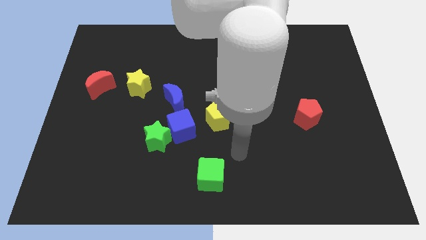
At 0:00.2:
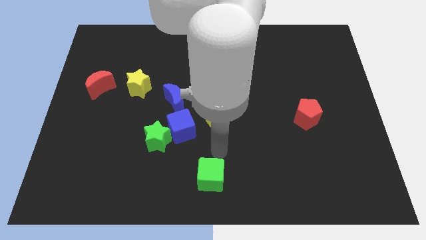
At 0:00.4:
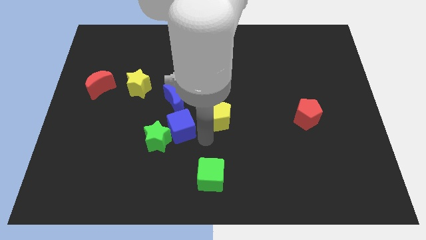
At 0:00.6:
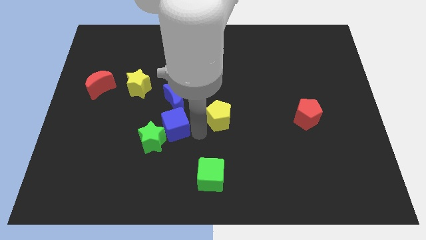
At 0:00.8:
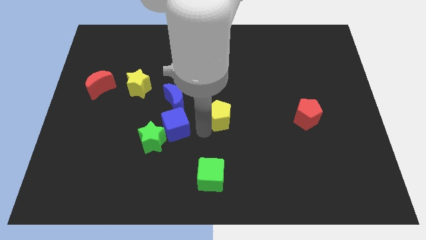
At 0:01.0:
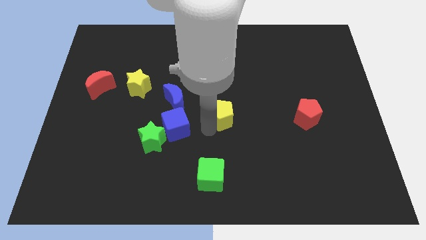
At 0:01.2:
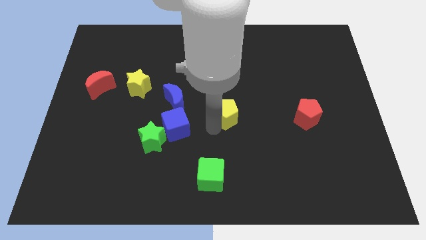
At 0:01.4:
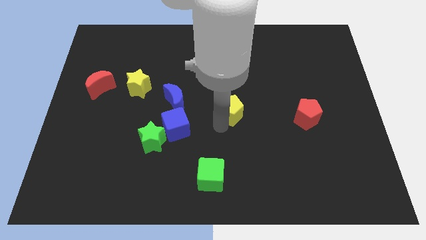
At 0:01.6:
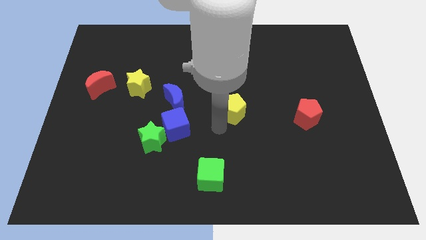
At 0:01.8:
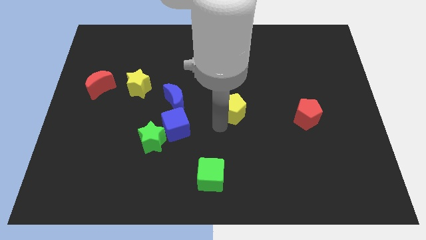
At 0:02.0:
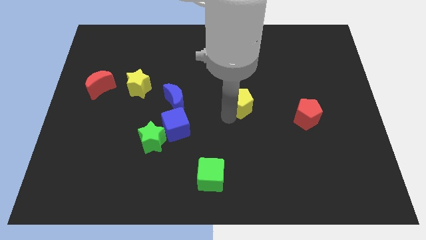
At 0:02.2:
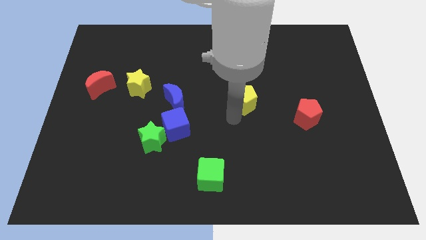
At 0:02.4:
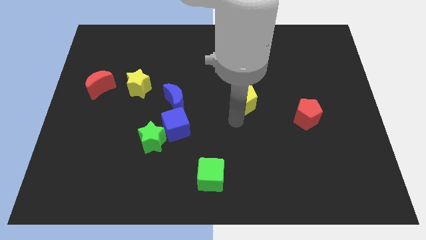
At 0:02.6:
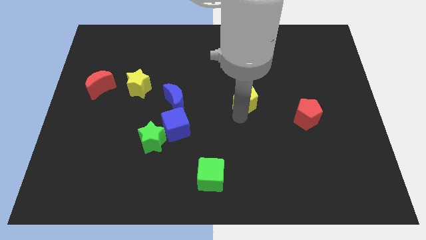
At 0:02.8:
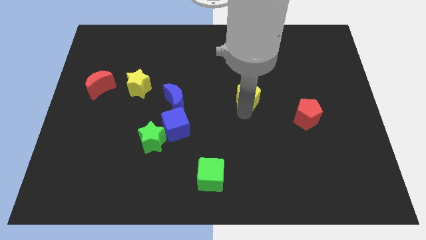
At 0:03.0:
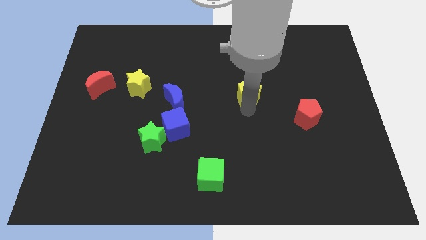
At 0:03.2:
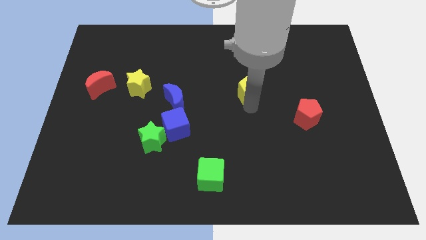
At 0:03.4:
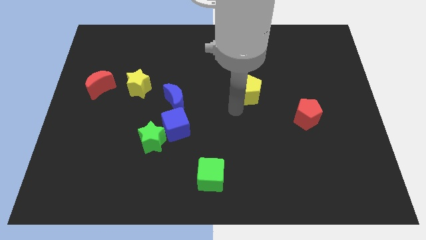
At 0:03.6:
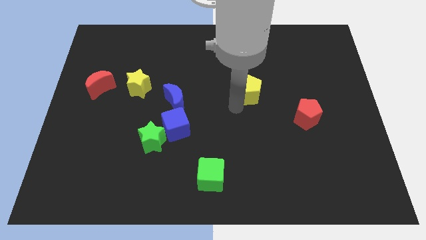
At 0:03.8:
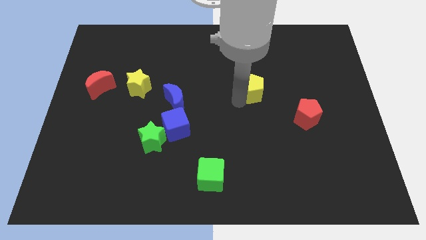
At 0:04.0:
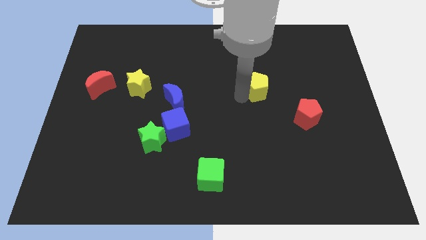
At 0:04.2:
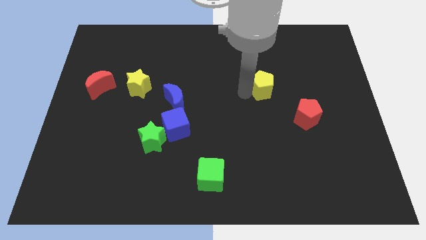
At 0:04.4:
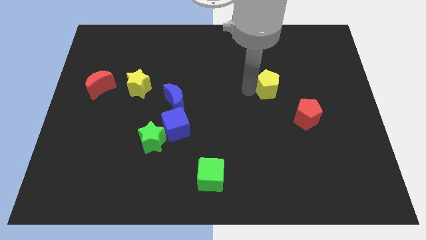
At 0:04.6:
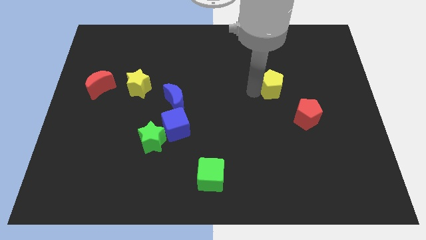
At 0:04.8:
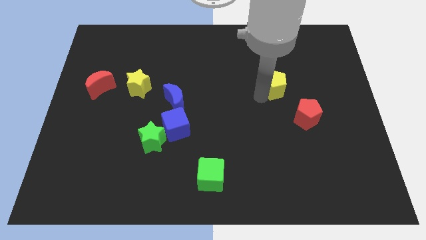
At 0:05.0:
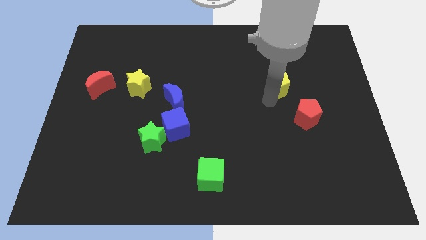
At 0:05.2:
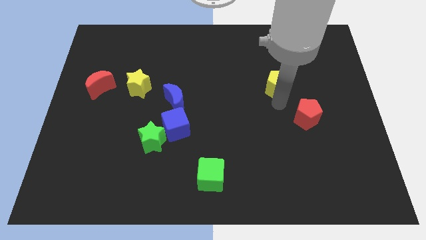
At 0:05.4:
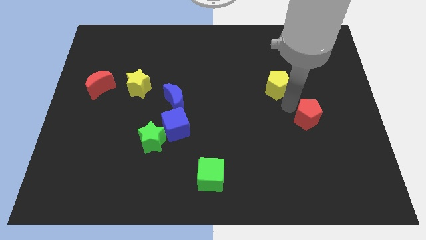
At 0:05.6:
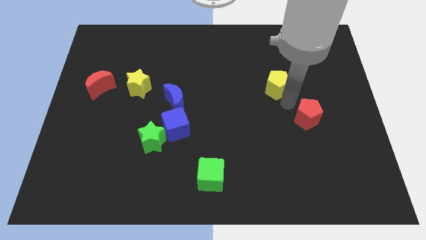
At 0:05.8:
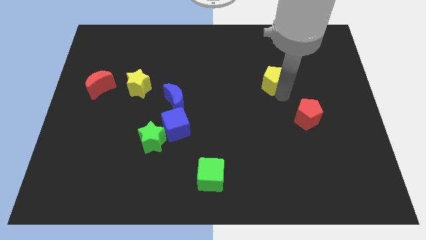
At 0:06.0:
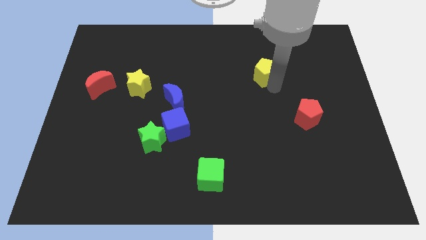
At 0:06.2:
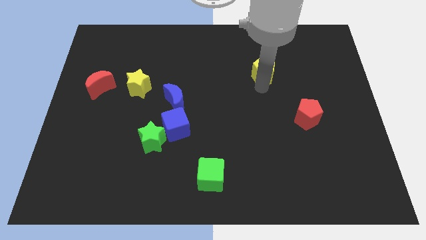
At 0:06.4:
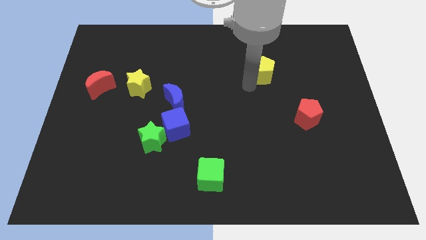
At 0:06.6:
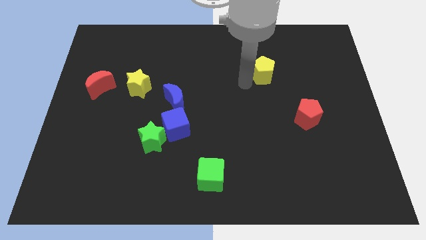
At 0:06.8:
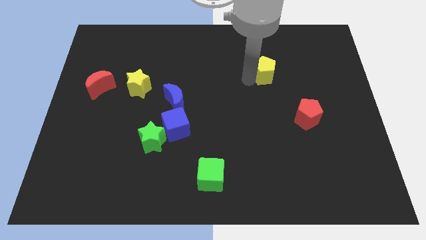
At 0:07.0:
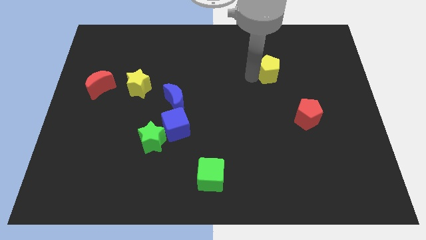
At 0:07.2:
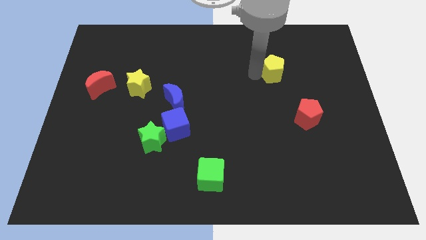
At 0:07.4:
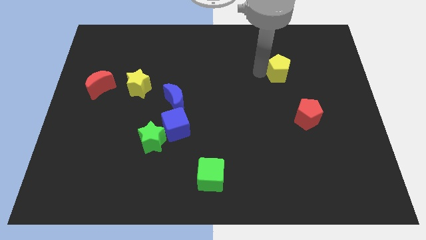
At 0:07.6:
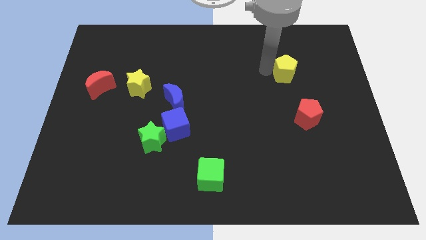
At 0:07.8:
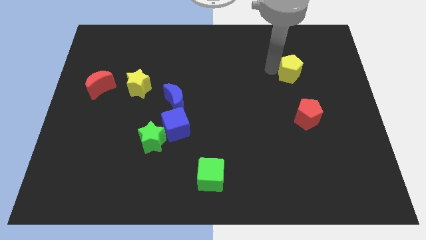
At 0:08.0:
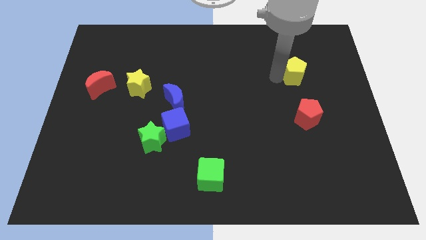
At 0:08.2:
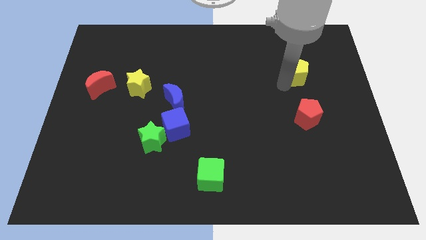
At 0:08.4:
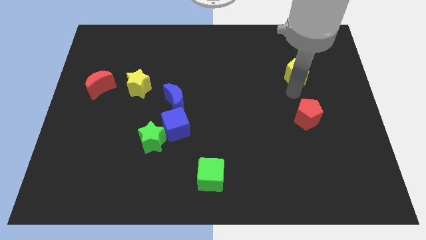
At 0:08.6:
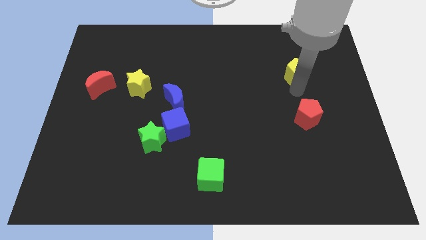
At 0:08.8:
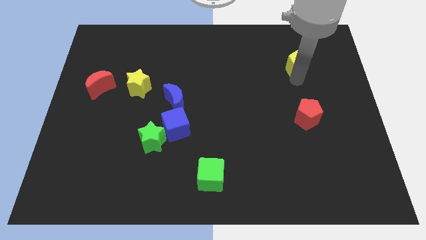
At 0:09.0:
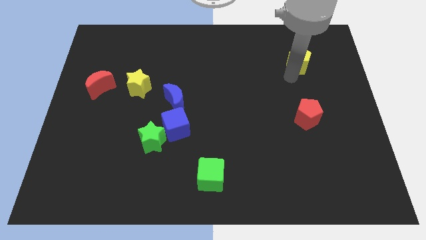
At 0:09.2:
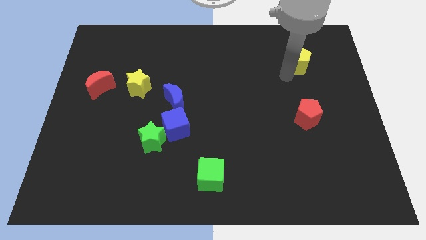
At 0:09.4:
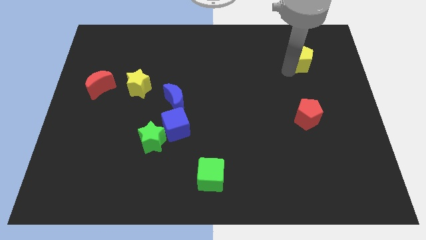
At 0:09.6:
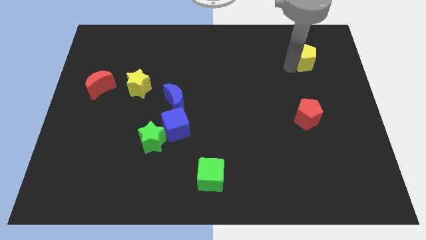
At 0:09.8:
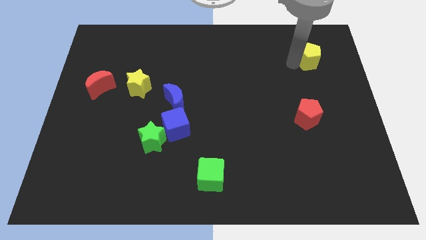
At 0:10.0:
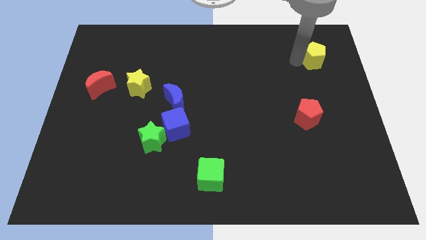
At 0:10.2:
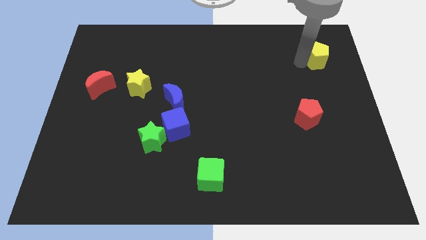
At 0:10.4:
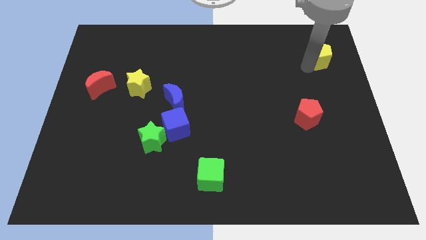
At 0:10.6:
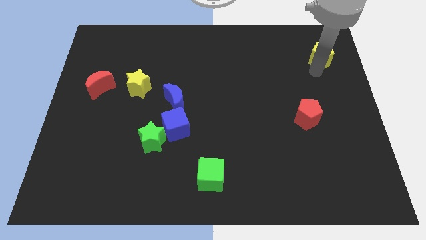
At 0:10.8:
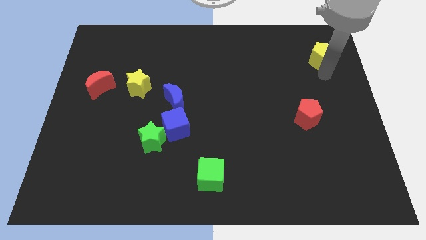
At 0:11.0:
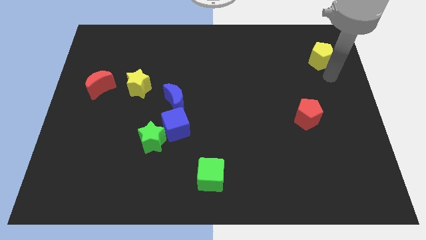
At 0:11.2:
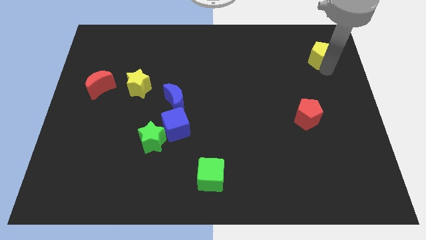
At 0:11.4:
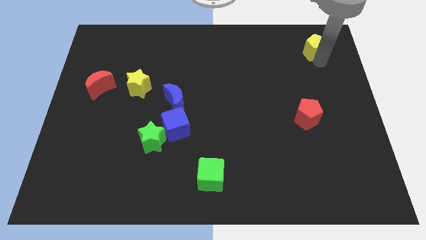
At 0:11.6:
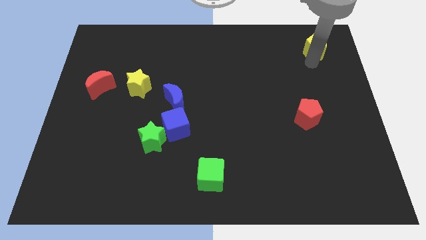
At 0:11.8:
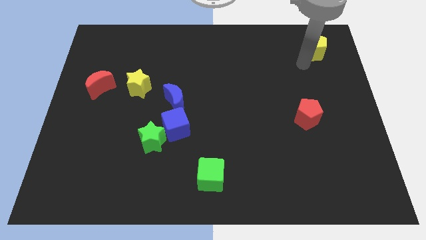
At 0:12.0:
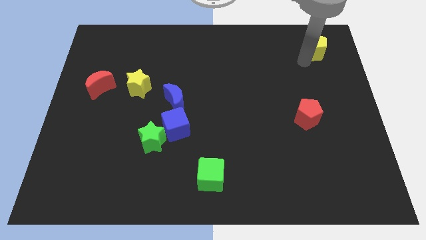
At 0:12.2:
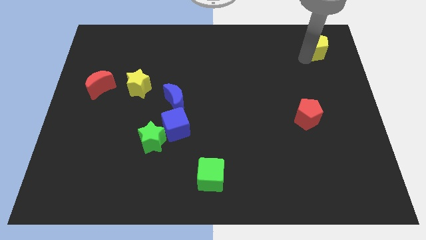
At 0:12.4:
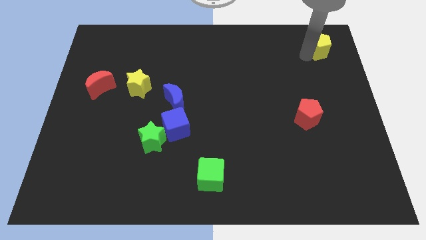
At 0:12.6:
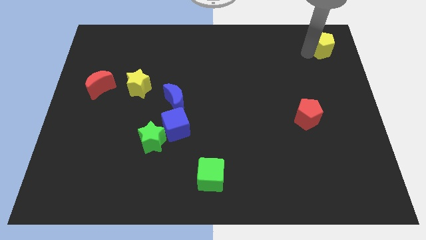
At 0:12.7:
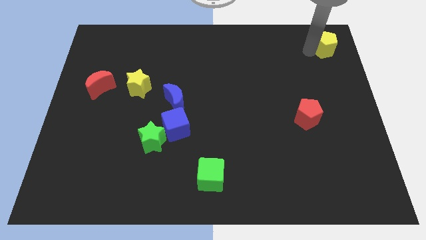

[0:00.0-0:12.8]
move the yellow pentagon to the upper right corner

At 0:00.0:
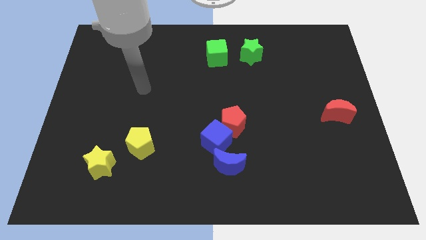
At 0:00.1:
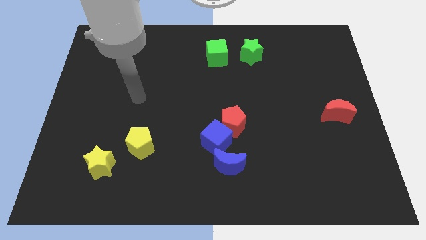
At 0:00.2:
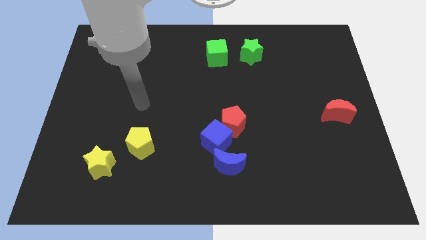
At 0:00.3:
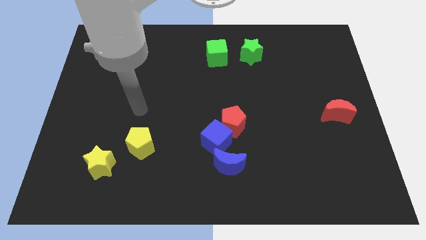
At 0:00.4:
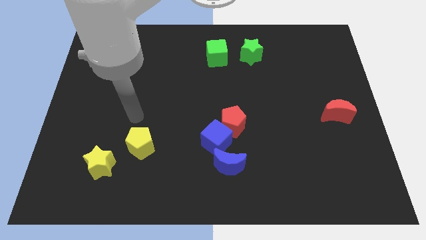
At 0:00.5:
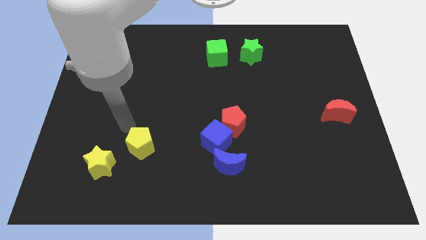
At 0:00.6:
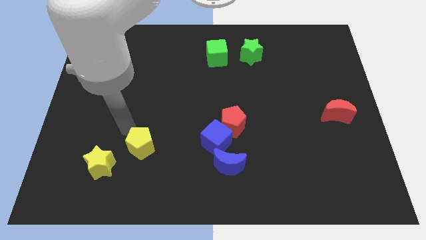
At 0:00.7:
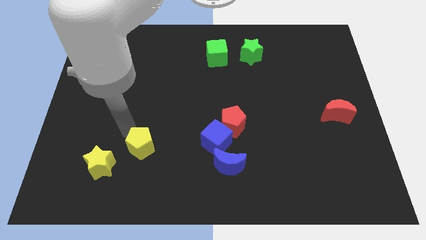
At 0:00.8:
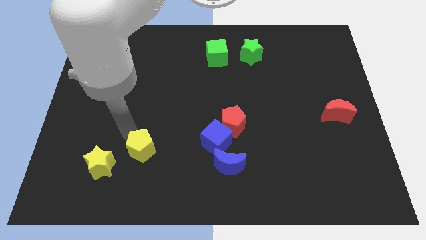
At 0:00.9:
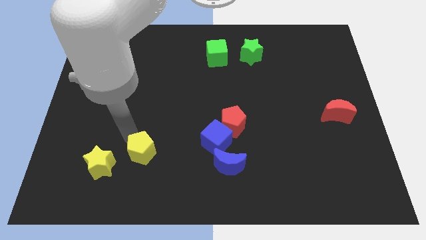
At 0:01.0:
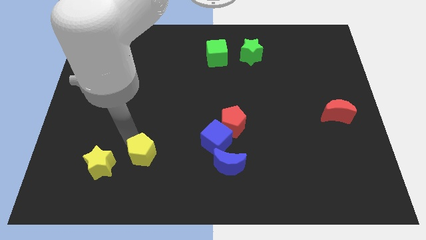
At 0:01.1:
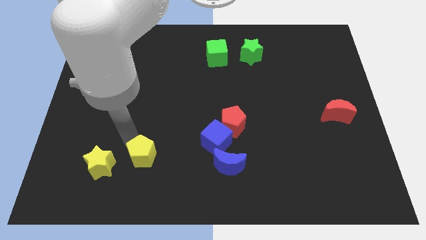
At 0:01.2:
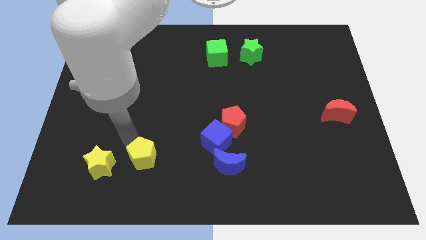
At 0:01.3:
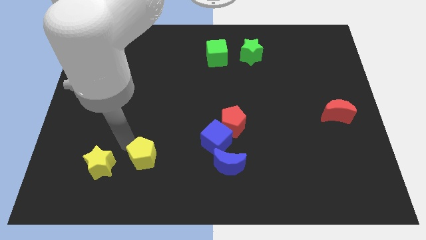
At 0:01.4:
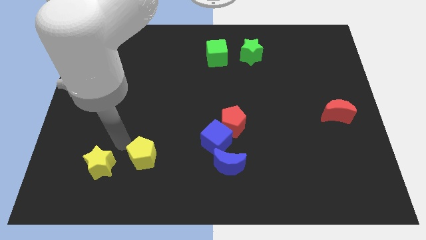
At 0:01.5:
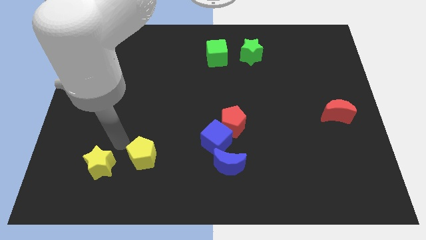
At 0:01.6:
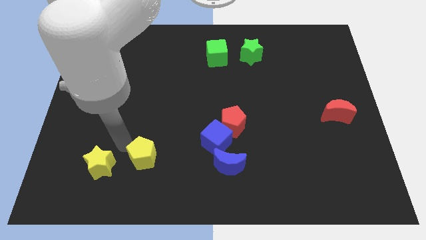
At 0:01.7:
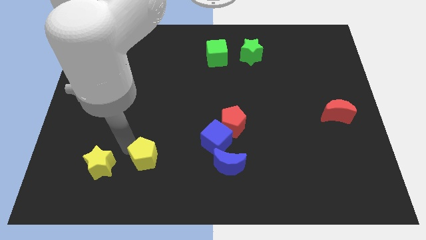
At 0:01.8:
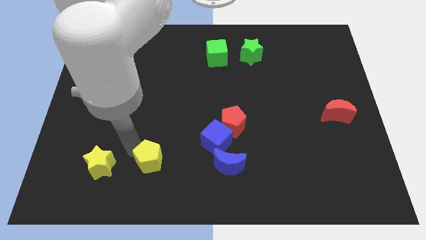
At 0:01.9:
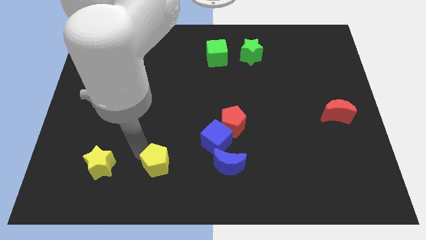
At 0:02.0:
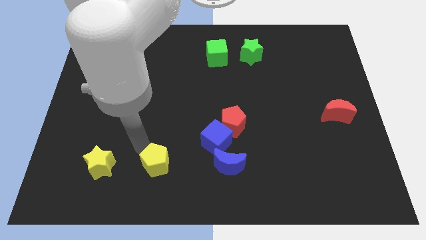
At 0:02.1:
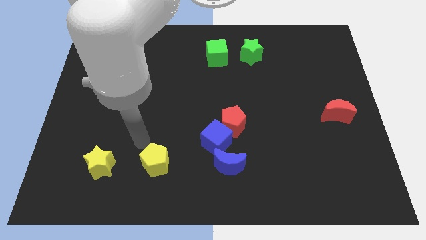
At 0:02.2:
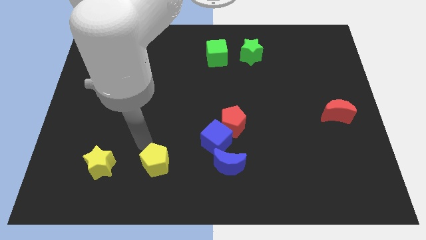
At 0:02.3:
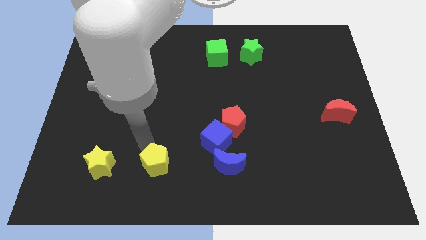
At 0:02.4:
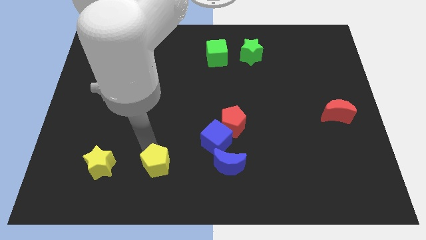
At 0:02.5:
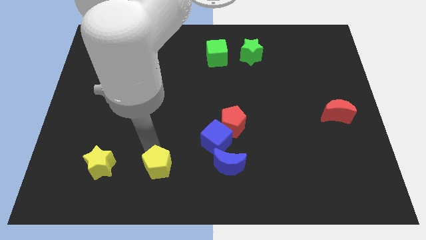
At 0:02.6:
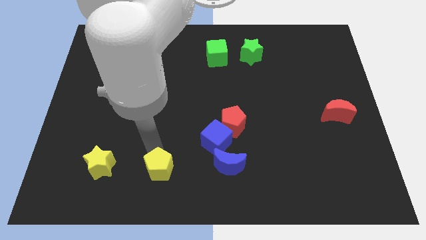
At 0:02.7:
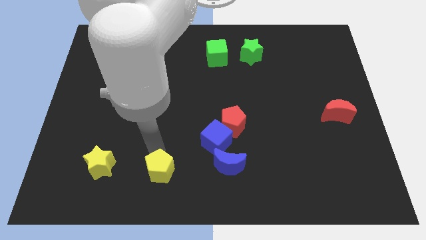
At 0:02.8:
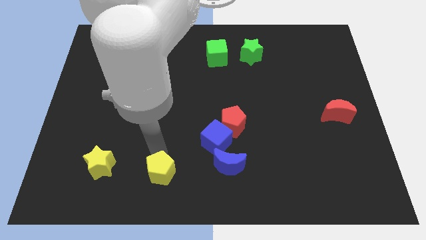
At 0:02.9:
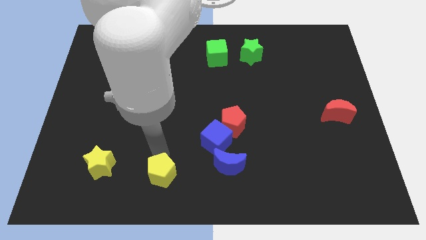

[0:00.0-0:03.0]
put the yellow pentagon to the bottom
